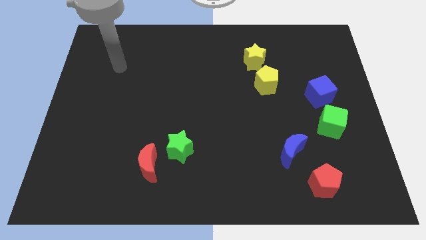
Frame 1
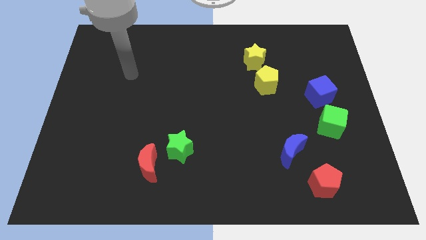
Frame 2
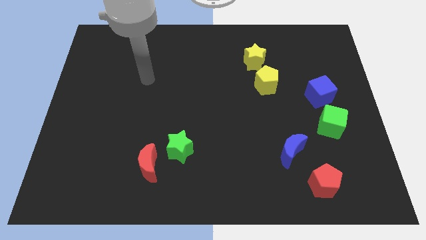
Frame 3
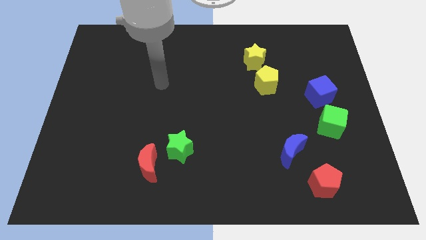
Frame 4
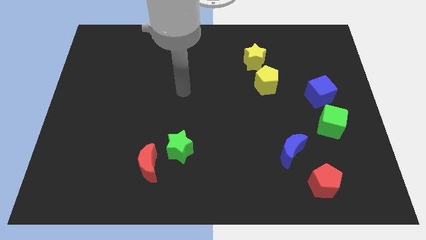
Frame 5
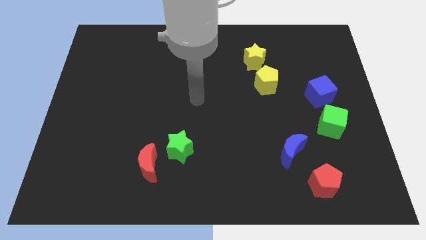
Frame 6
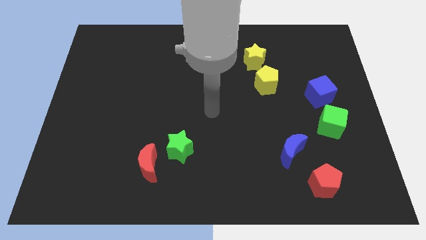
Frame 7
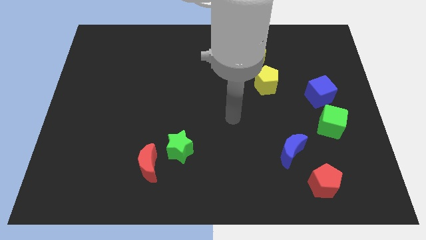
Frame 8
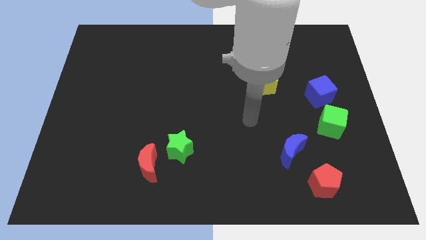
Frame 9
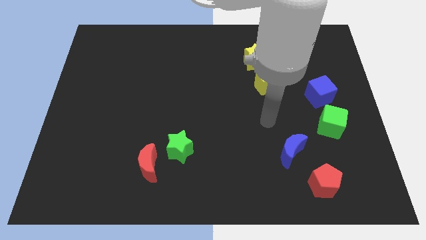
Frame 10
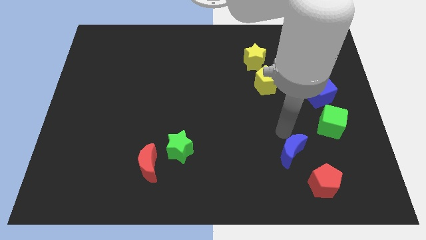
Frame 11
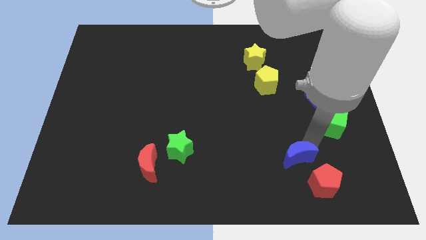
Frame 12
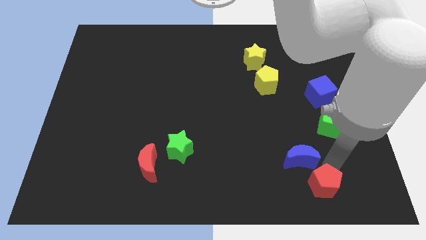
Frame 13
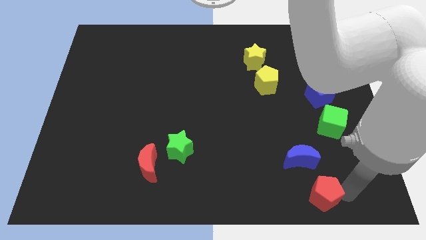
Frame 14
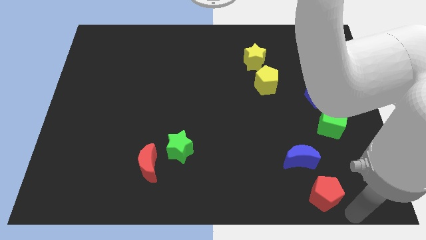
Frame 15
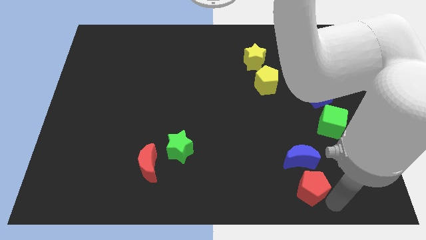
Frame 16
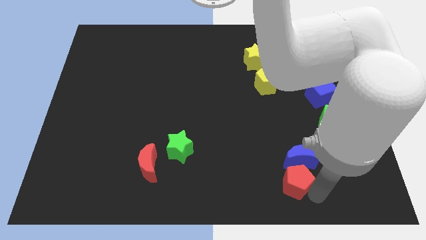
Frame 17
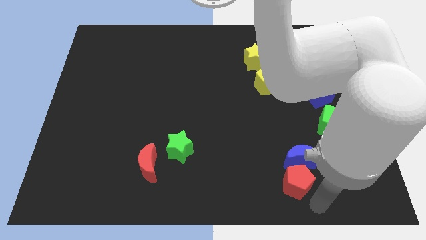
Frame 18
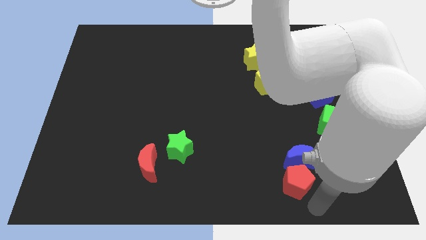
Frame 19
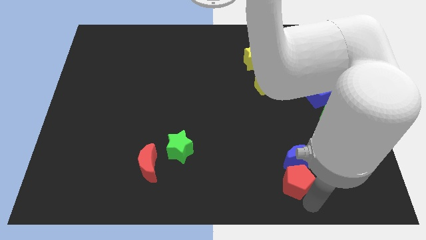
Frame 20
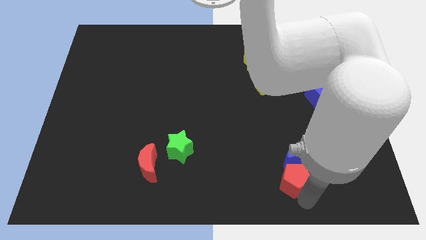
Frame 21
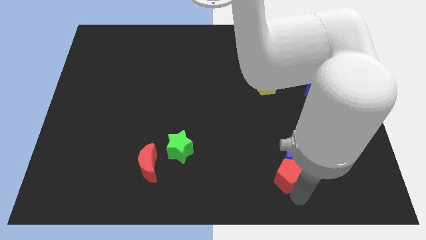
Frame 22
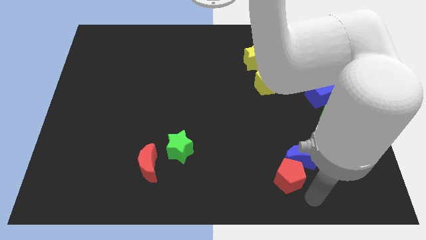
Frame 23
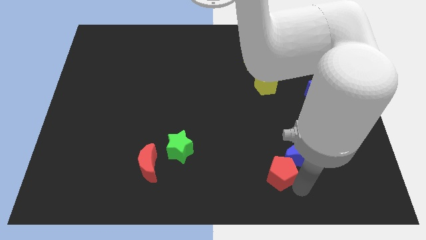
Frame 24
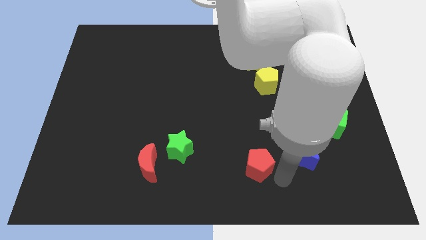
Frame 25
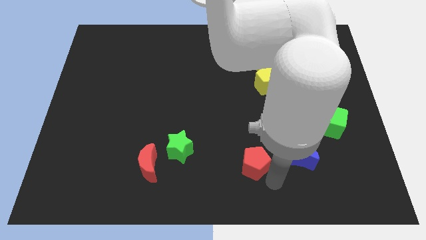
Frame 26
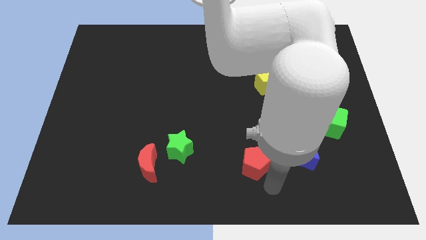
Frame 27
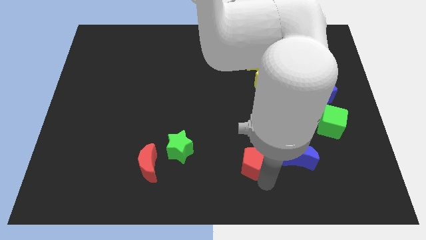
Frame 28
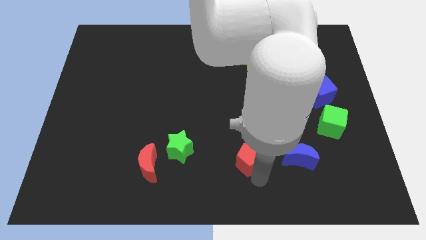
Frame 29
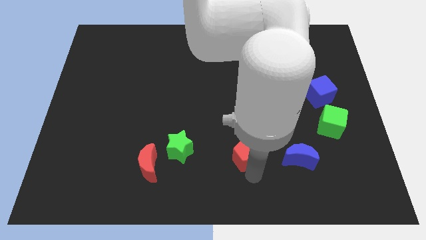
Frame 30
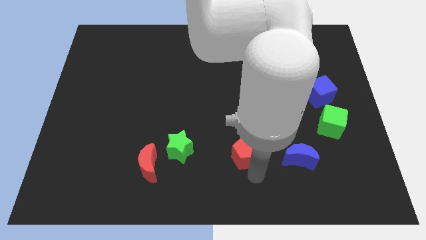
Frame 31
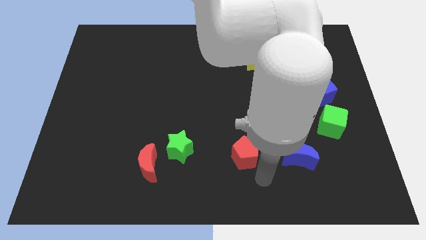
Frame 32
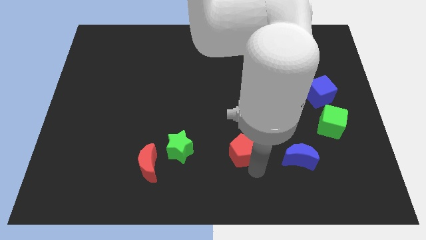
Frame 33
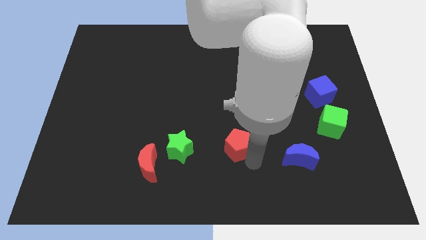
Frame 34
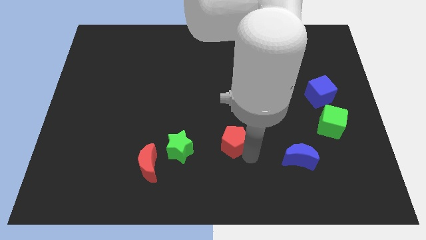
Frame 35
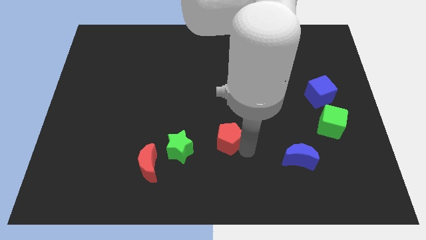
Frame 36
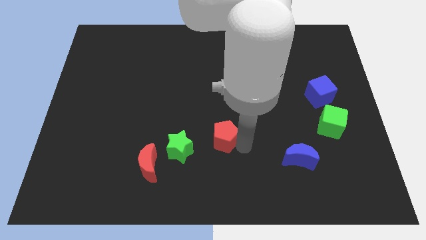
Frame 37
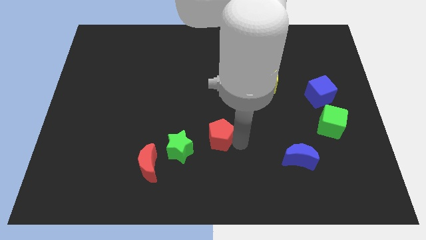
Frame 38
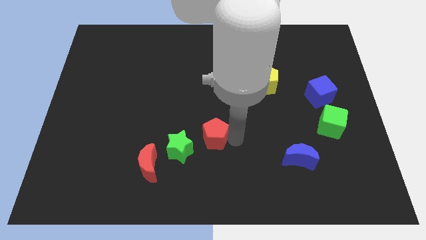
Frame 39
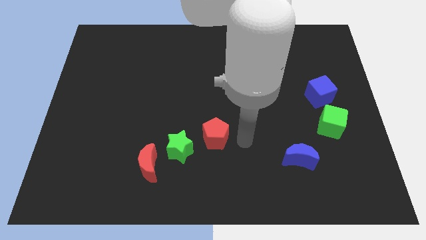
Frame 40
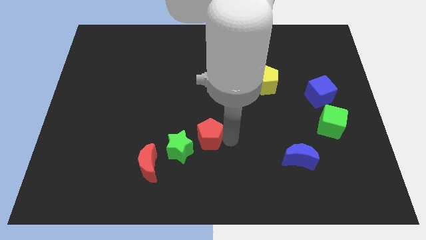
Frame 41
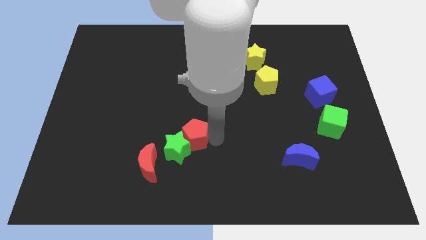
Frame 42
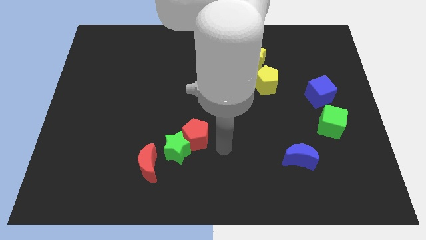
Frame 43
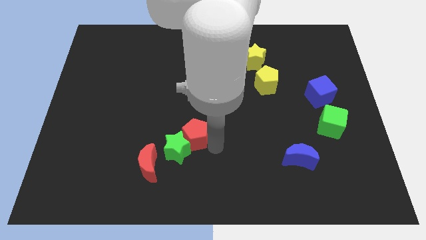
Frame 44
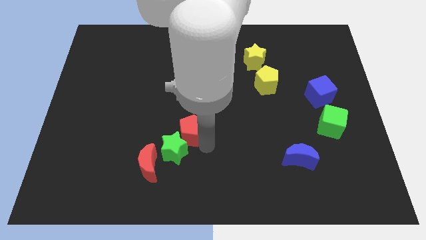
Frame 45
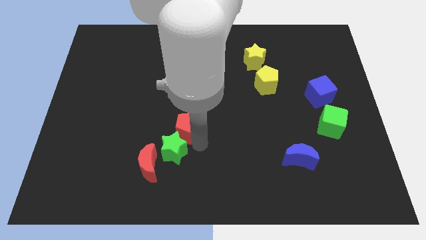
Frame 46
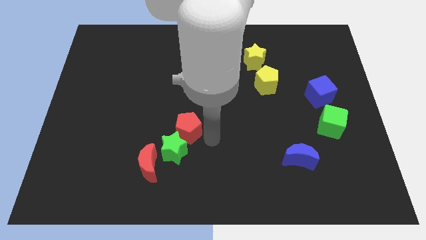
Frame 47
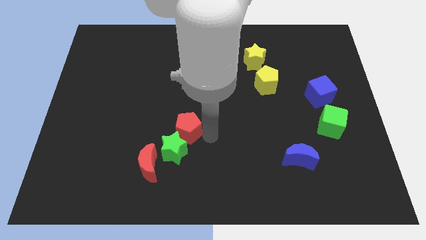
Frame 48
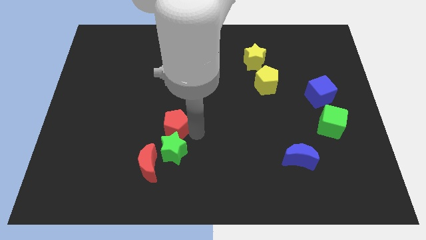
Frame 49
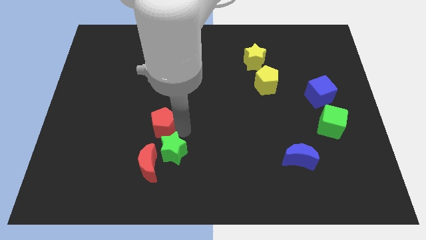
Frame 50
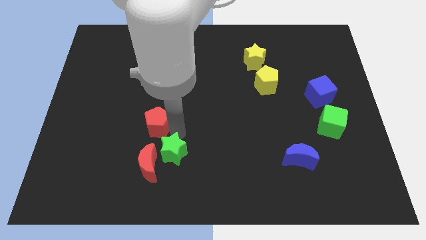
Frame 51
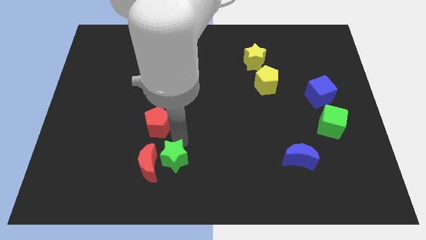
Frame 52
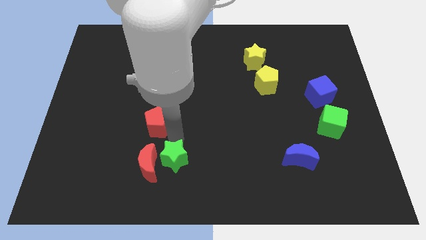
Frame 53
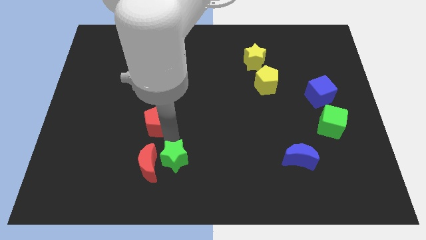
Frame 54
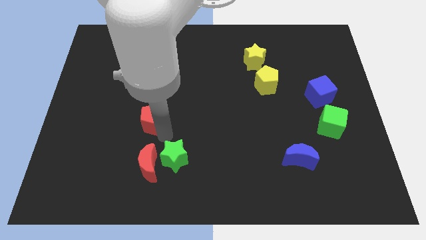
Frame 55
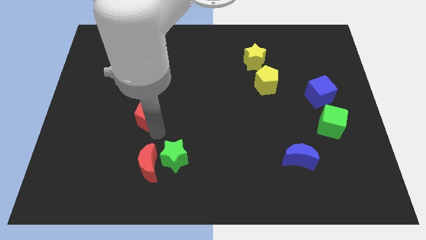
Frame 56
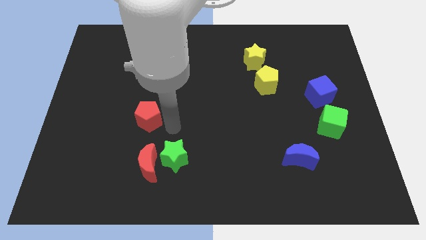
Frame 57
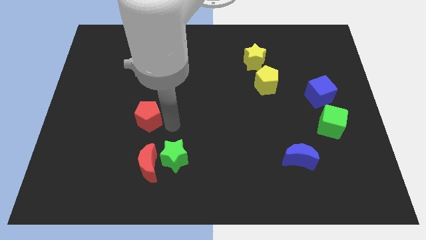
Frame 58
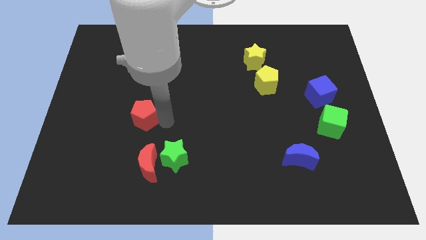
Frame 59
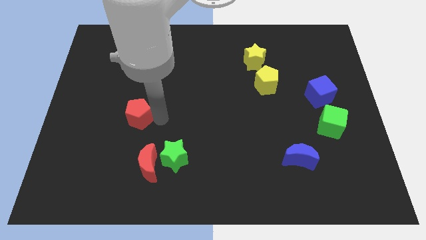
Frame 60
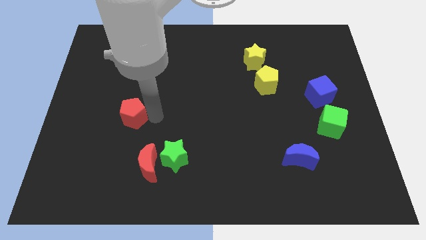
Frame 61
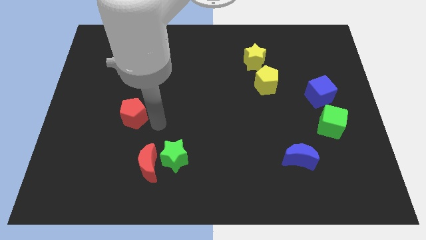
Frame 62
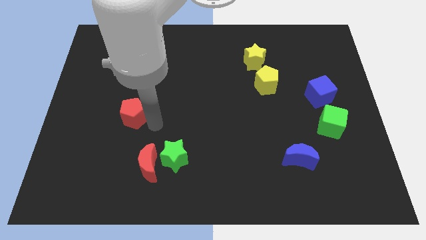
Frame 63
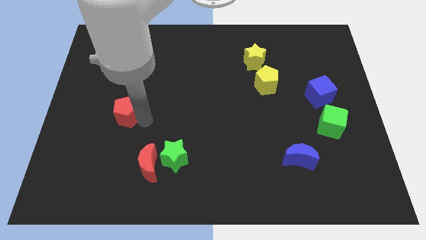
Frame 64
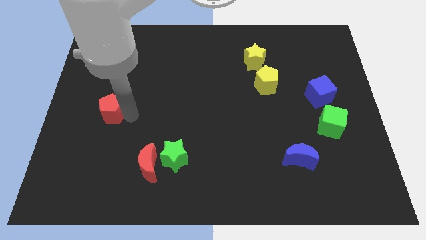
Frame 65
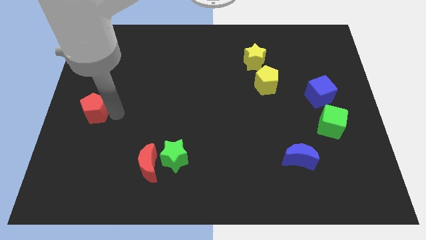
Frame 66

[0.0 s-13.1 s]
slide the red pentagon to the center left
